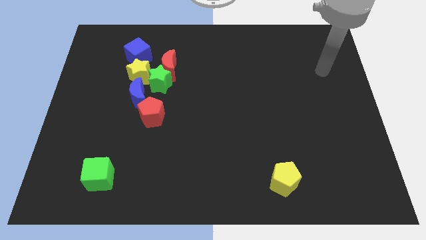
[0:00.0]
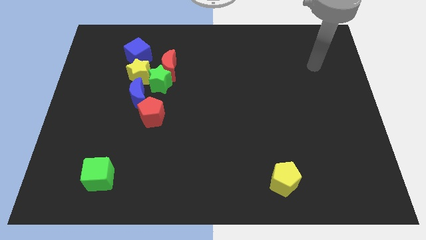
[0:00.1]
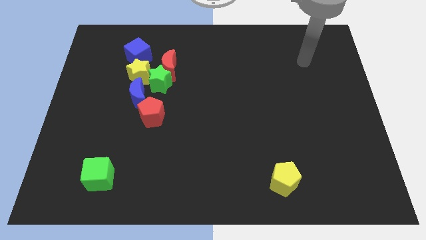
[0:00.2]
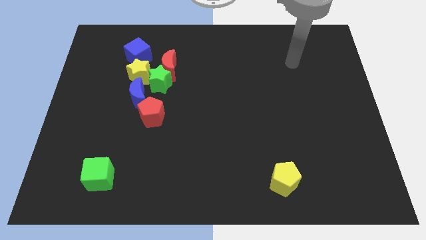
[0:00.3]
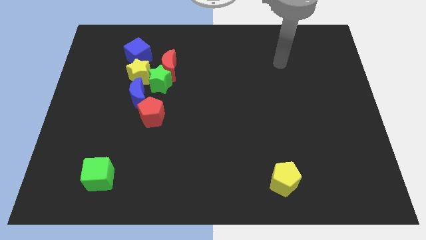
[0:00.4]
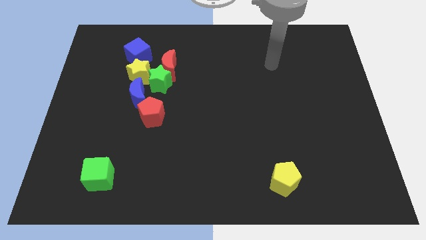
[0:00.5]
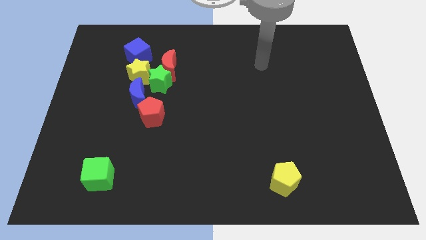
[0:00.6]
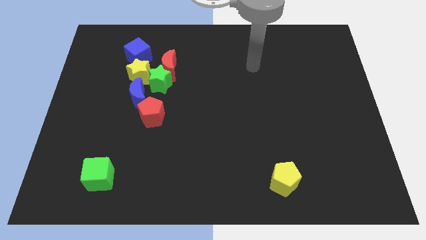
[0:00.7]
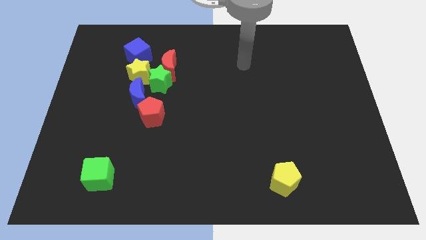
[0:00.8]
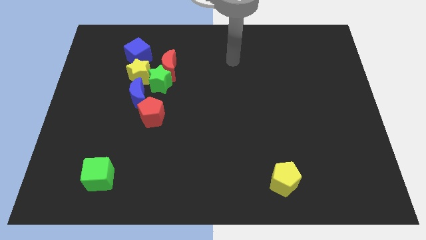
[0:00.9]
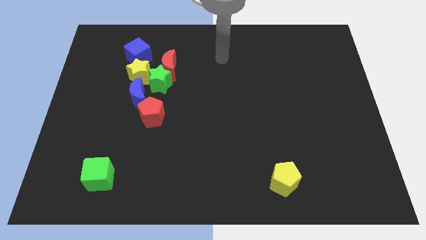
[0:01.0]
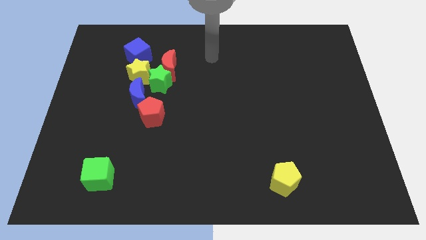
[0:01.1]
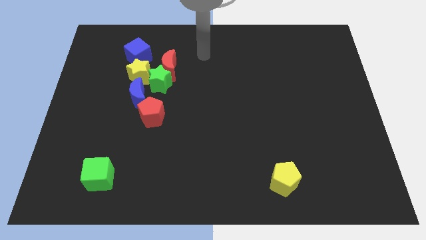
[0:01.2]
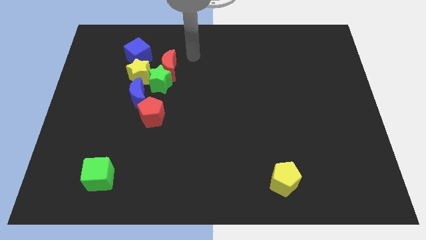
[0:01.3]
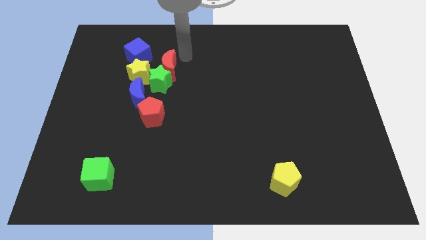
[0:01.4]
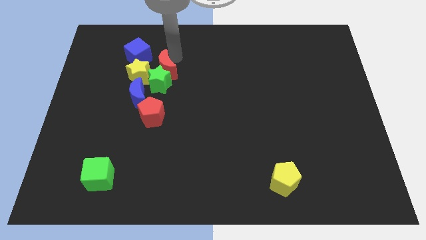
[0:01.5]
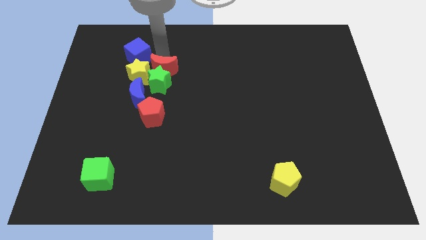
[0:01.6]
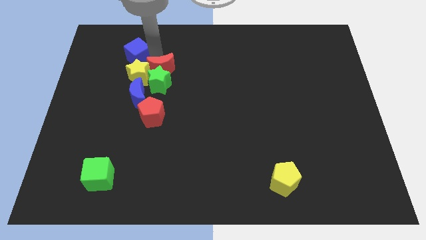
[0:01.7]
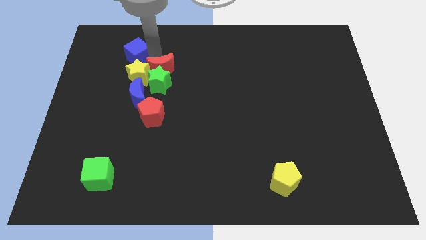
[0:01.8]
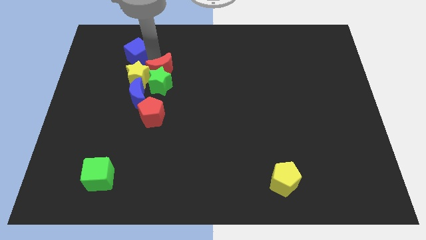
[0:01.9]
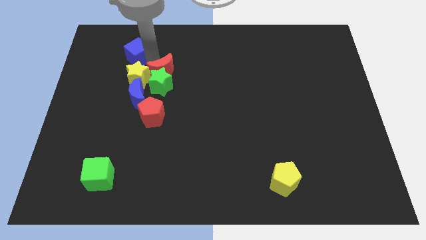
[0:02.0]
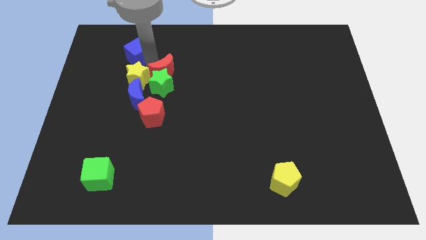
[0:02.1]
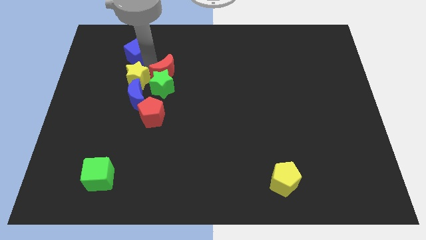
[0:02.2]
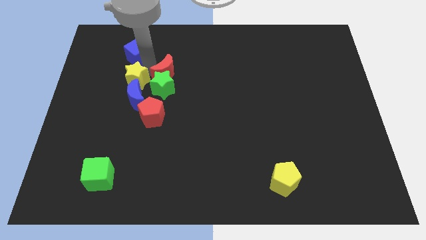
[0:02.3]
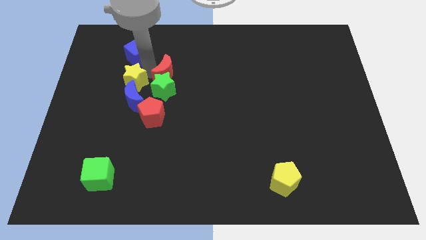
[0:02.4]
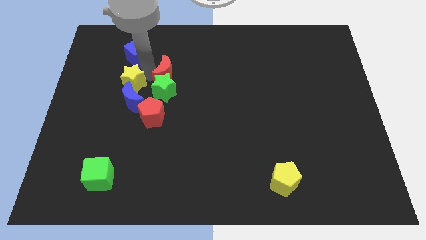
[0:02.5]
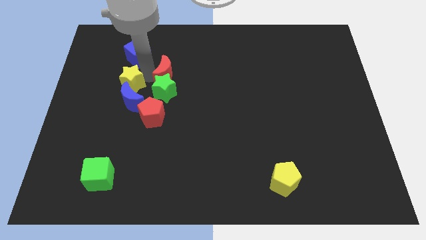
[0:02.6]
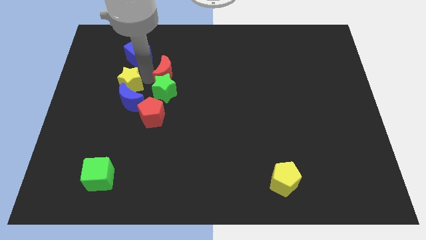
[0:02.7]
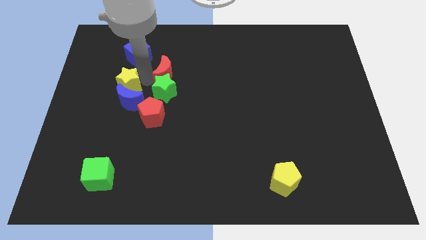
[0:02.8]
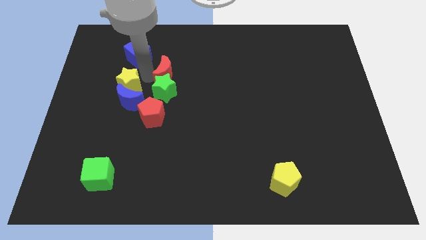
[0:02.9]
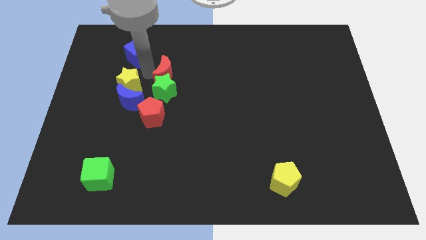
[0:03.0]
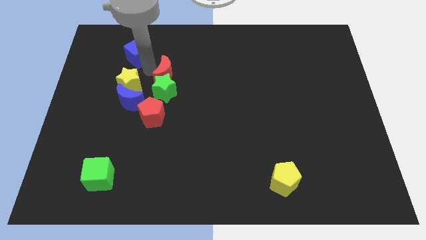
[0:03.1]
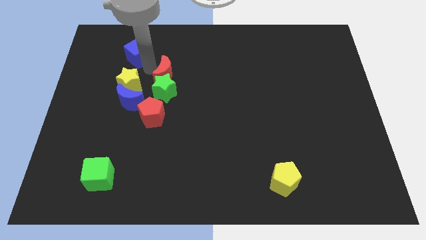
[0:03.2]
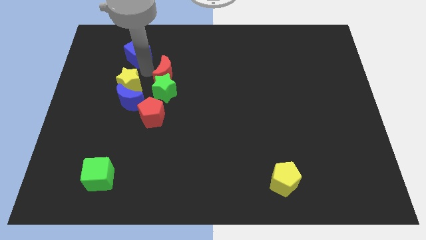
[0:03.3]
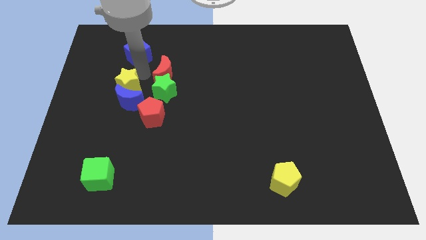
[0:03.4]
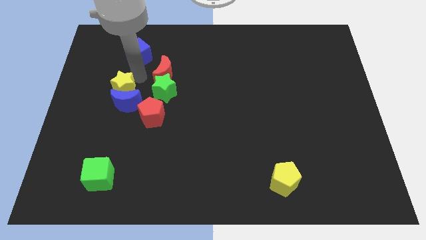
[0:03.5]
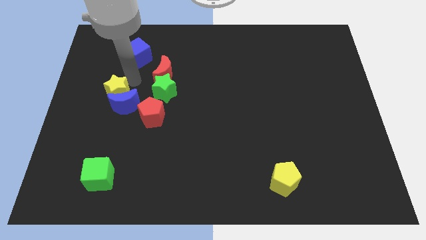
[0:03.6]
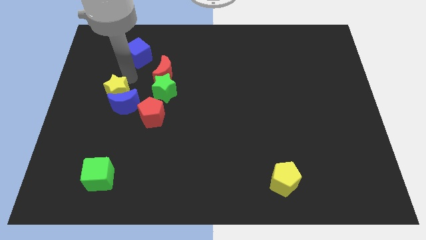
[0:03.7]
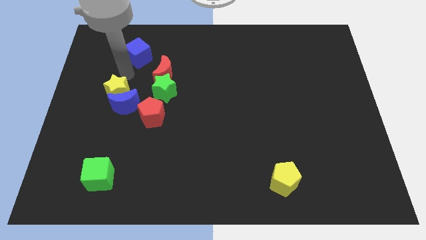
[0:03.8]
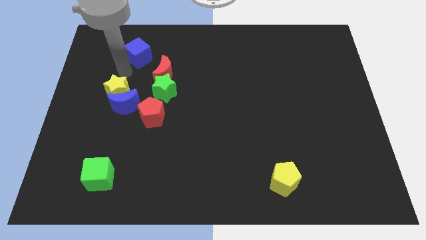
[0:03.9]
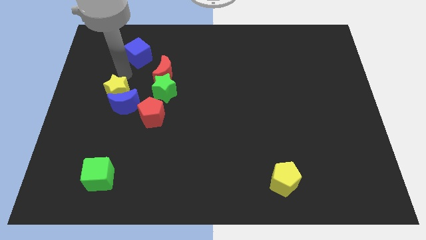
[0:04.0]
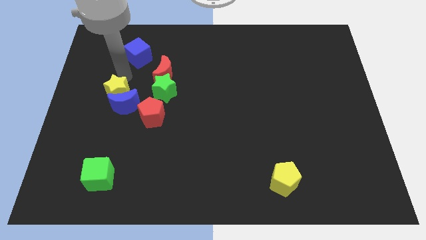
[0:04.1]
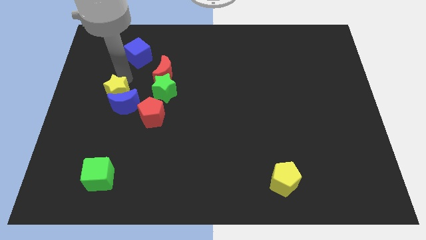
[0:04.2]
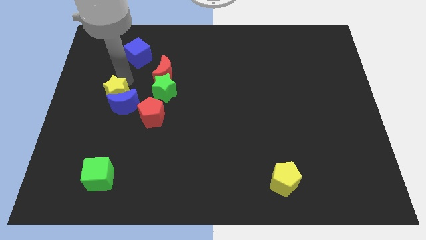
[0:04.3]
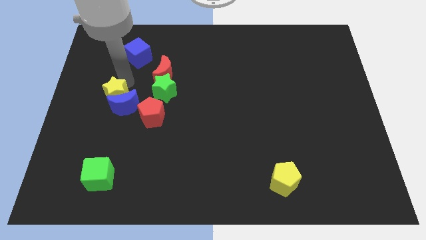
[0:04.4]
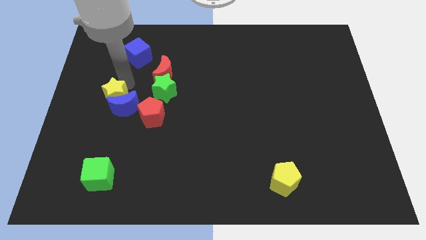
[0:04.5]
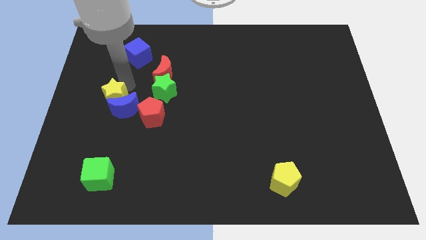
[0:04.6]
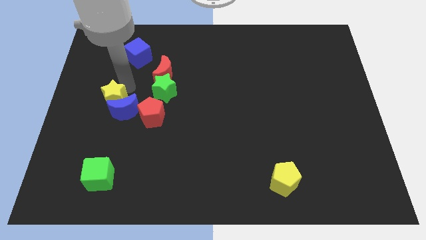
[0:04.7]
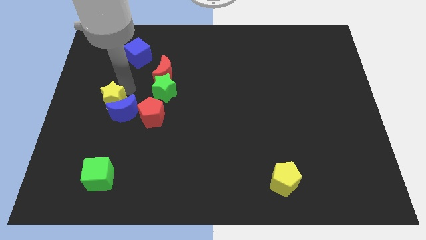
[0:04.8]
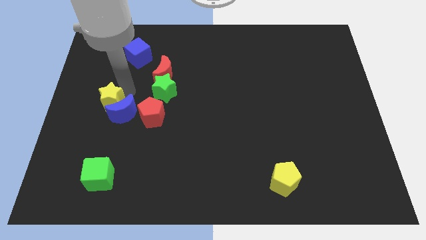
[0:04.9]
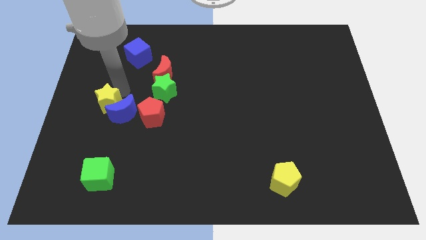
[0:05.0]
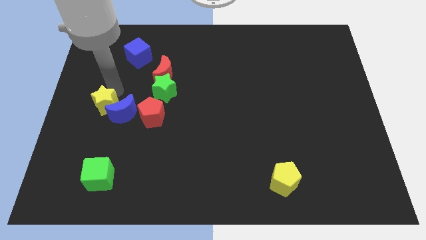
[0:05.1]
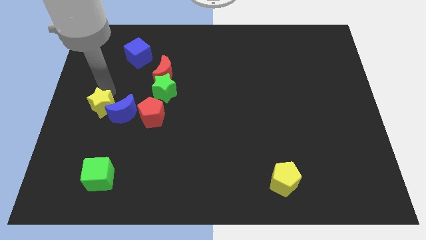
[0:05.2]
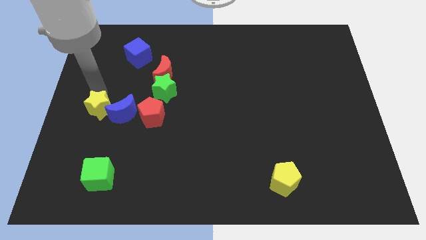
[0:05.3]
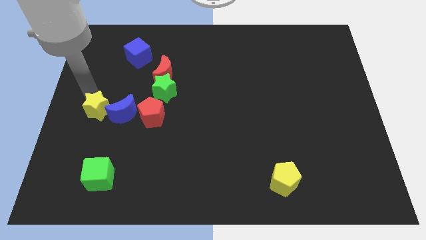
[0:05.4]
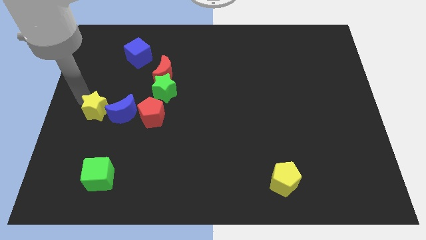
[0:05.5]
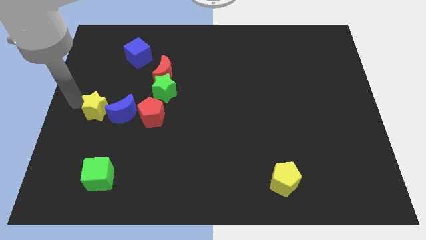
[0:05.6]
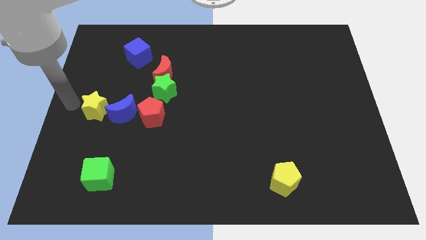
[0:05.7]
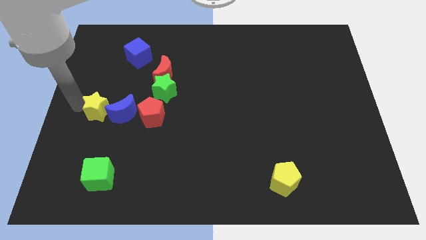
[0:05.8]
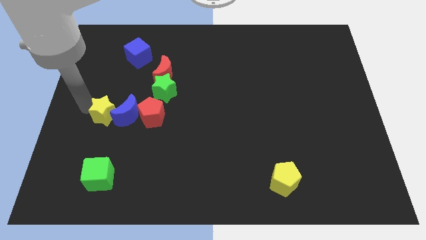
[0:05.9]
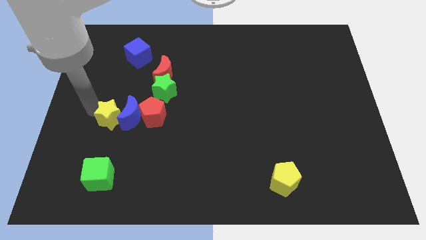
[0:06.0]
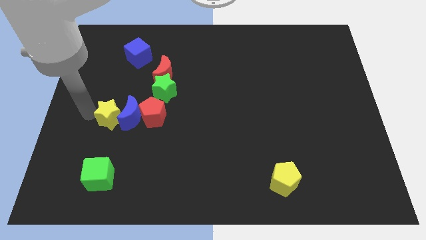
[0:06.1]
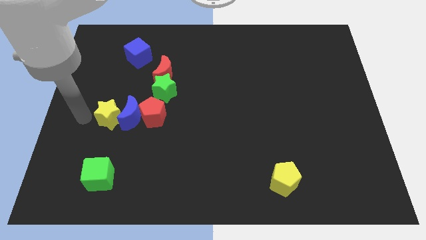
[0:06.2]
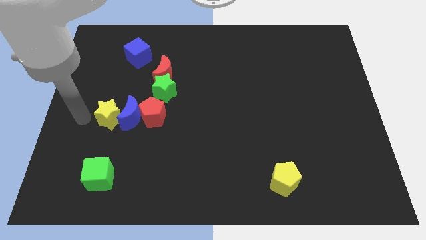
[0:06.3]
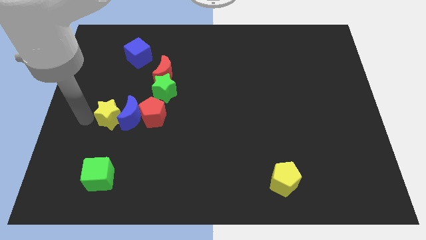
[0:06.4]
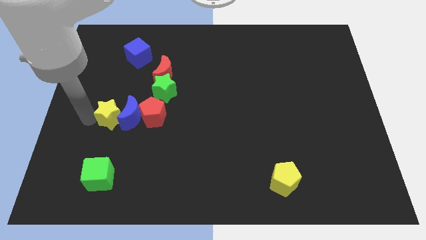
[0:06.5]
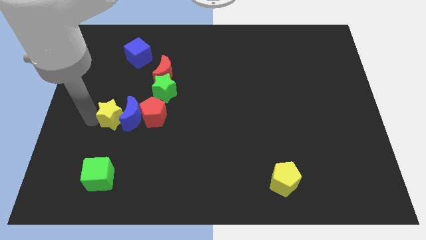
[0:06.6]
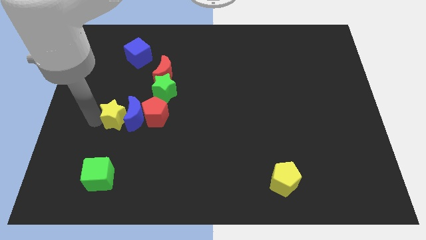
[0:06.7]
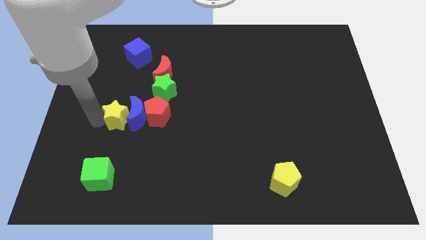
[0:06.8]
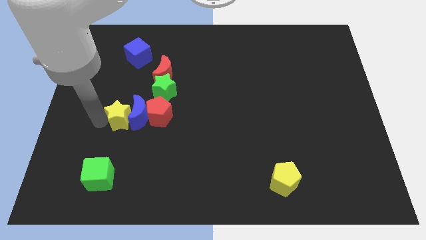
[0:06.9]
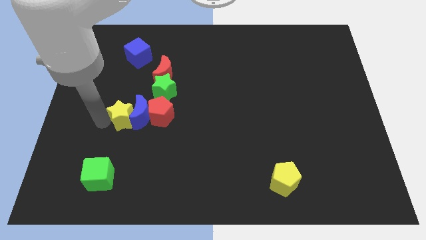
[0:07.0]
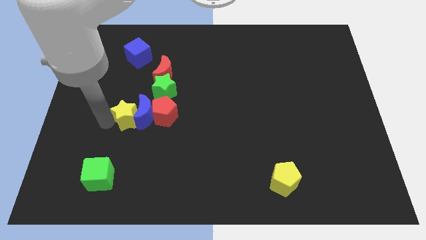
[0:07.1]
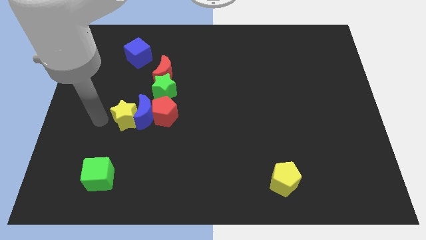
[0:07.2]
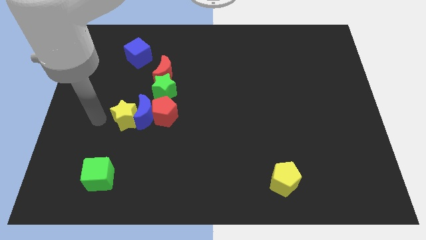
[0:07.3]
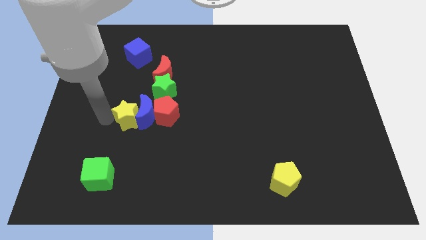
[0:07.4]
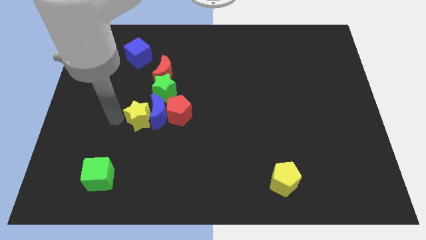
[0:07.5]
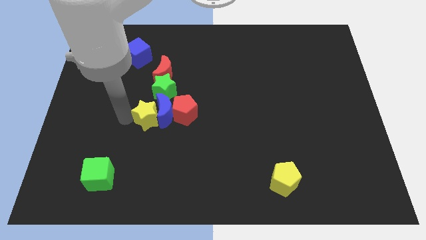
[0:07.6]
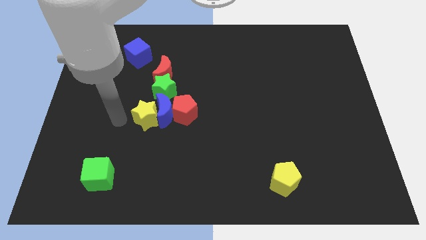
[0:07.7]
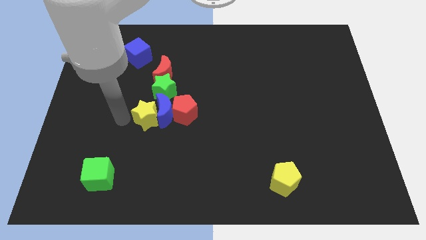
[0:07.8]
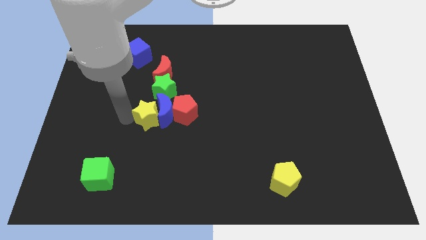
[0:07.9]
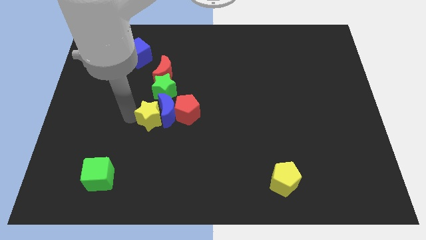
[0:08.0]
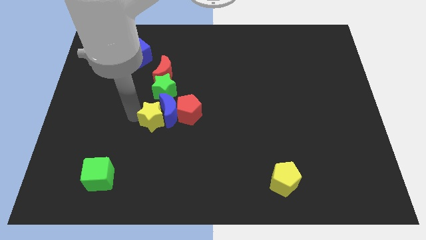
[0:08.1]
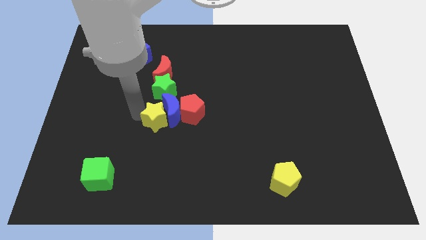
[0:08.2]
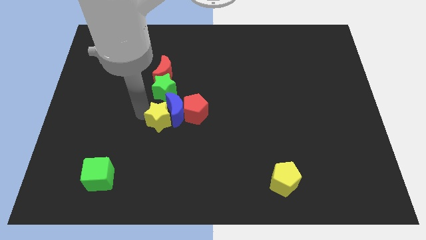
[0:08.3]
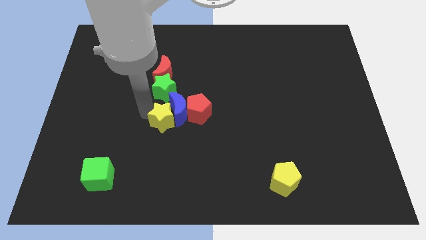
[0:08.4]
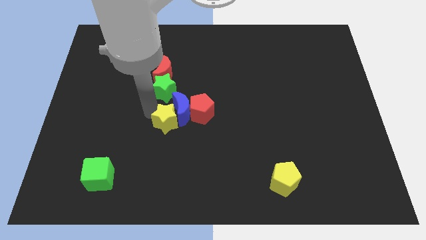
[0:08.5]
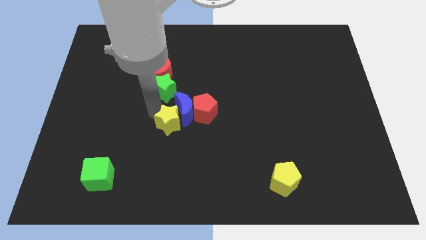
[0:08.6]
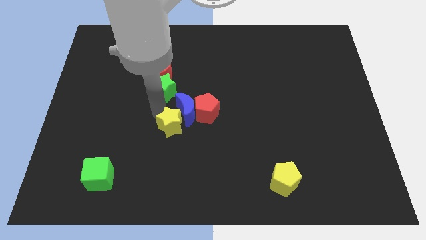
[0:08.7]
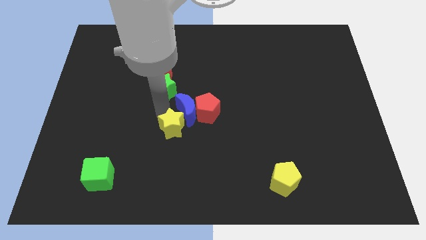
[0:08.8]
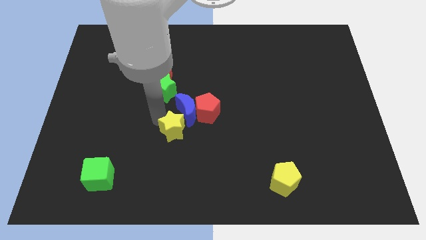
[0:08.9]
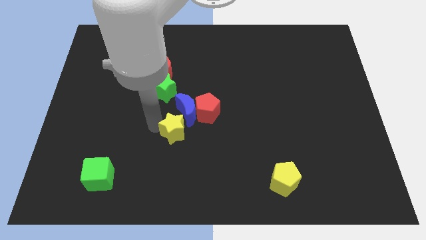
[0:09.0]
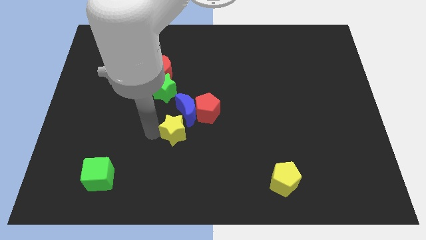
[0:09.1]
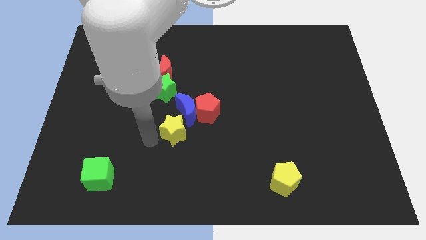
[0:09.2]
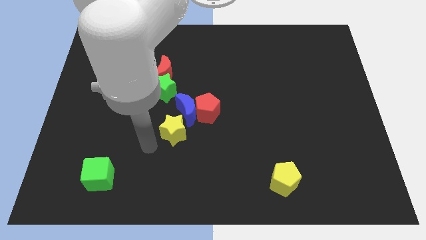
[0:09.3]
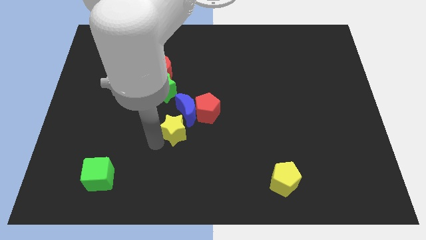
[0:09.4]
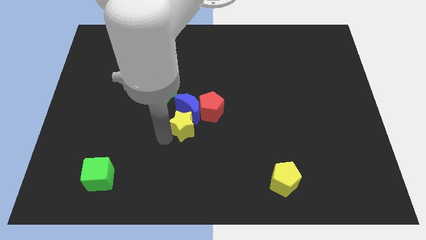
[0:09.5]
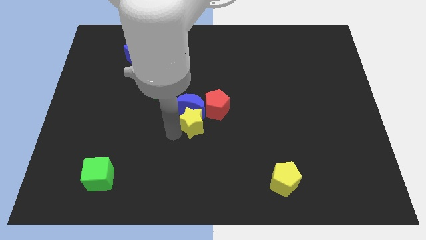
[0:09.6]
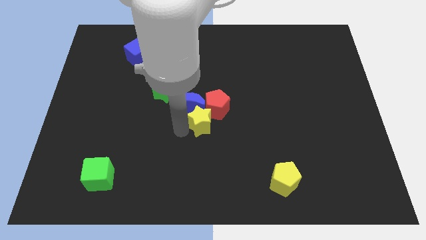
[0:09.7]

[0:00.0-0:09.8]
put the yellow star to the red pentagon
